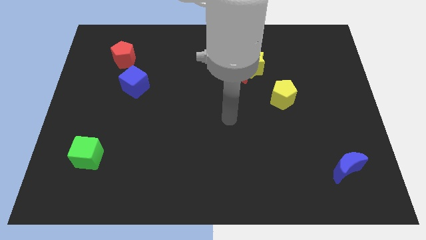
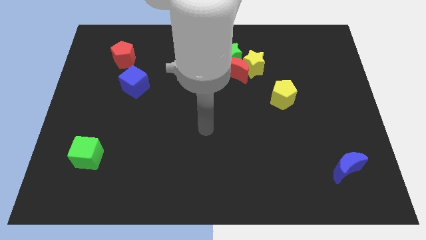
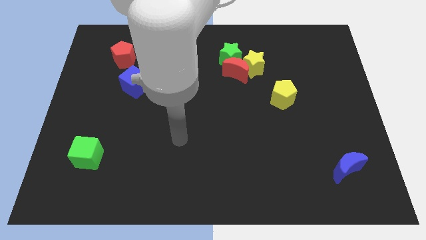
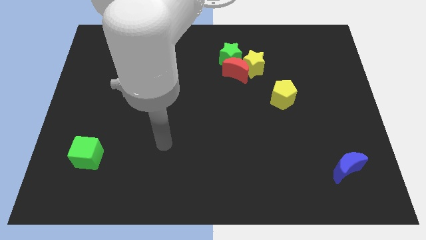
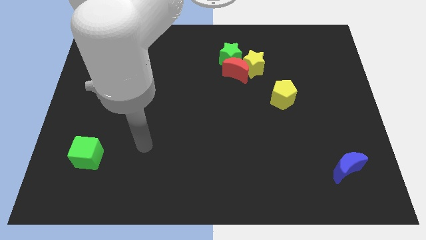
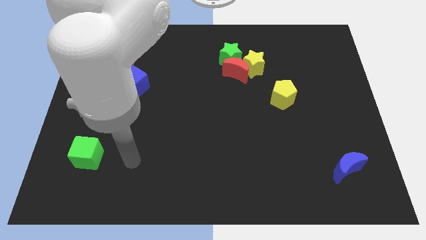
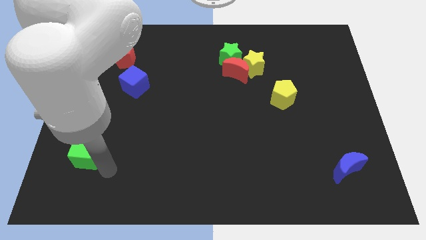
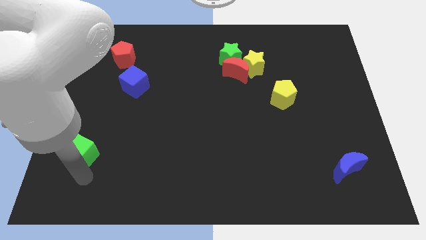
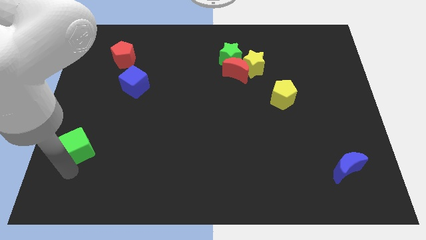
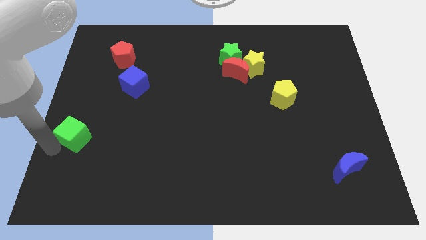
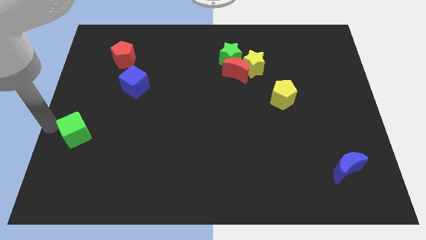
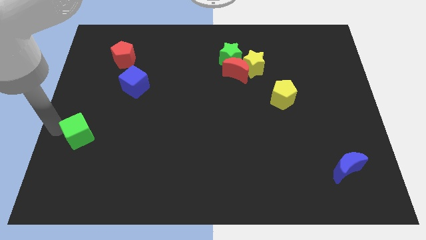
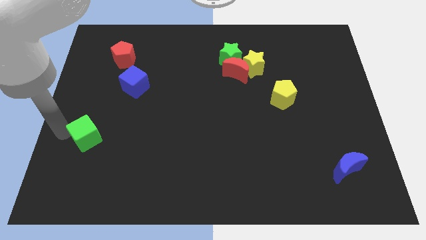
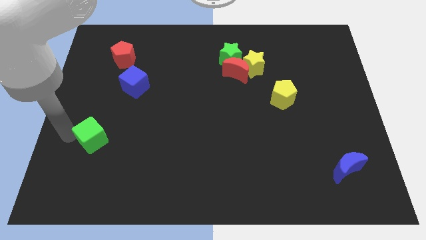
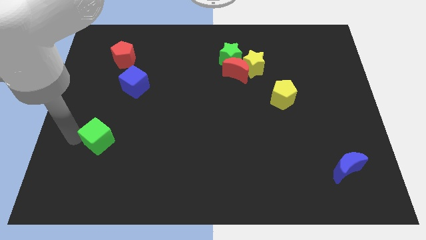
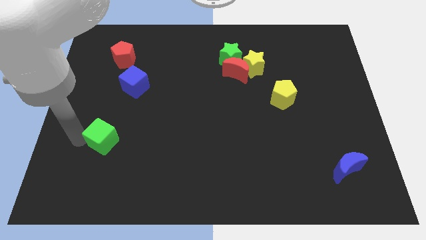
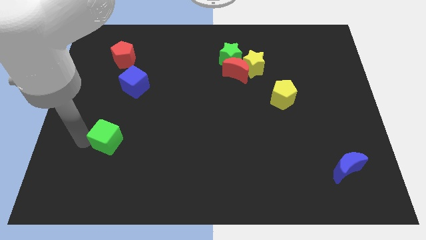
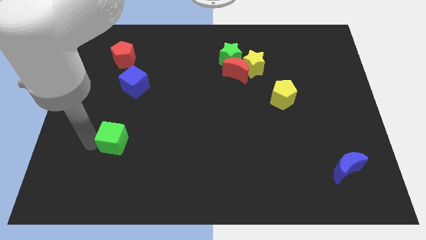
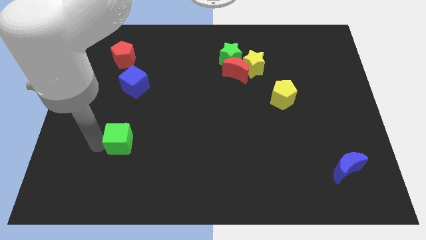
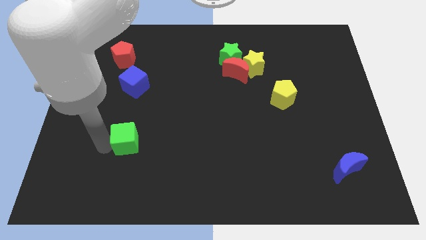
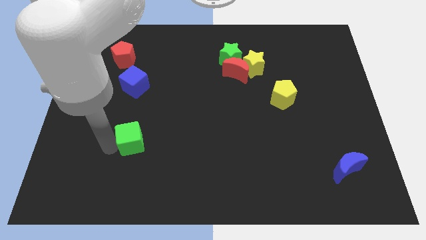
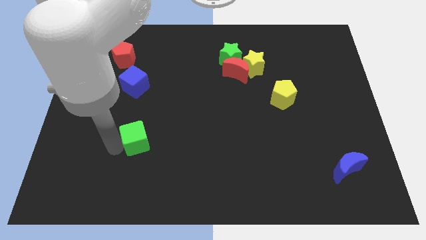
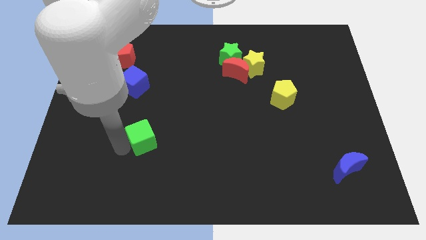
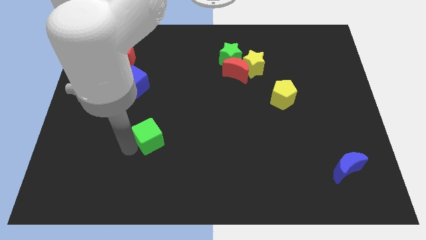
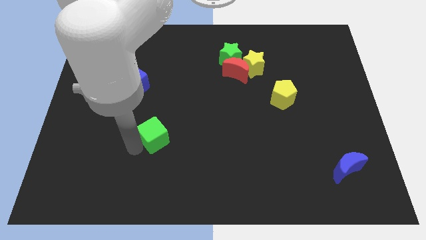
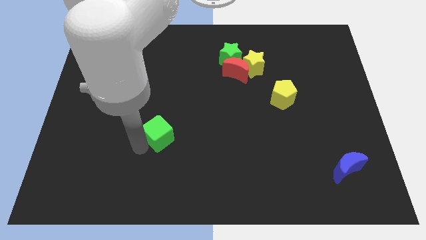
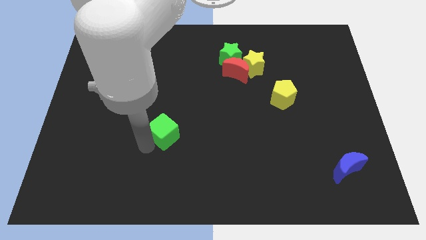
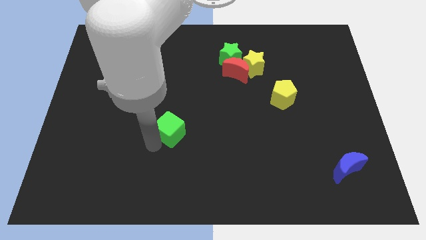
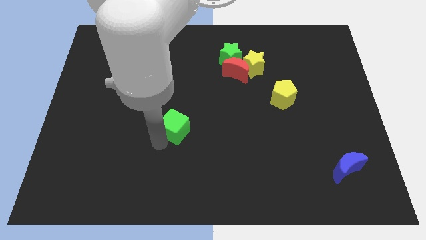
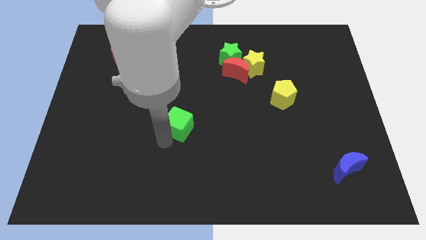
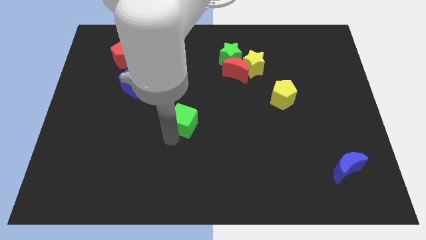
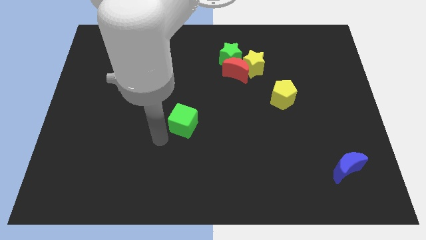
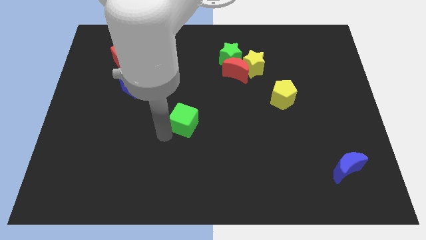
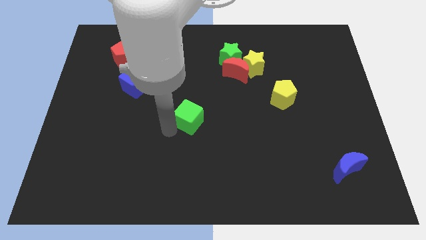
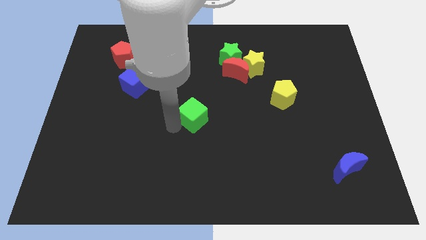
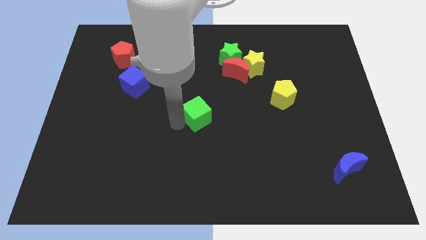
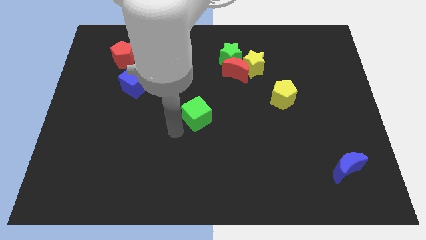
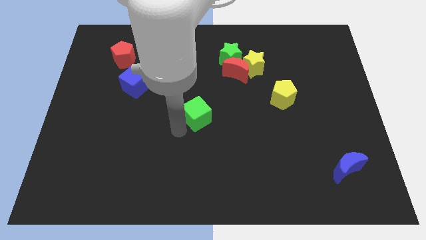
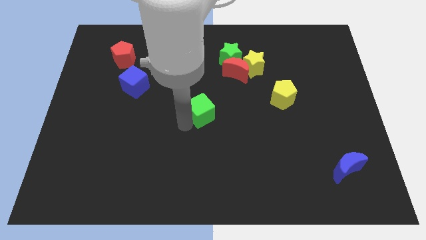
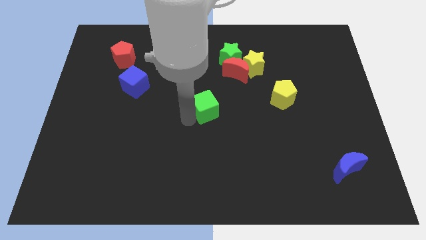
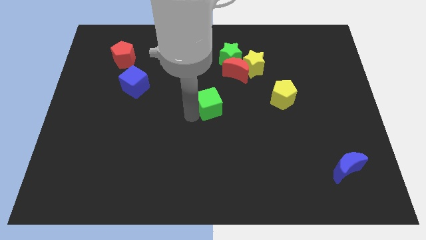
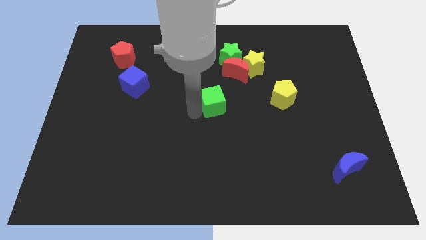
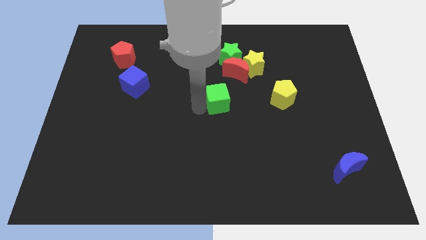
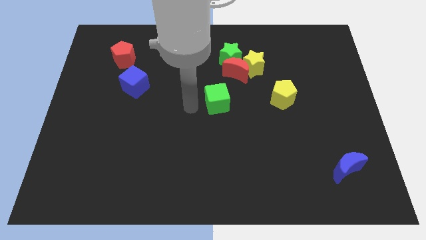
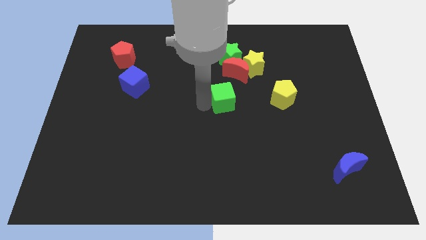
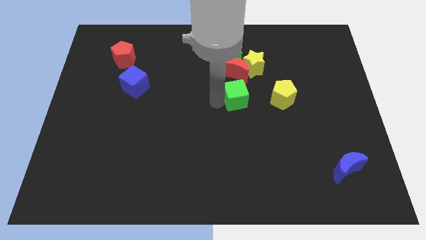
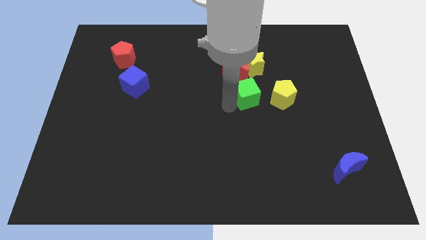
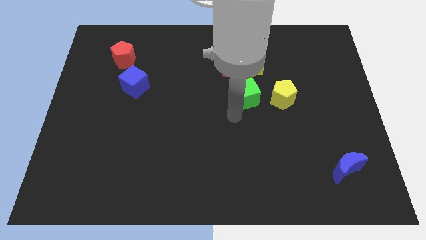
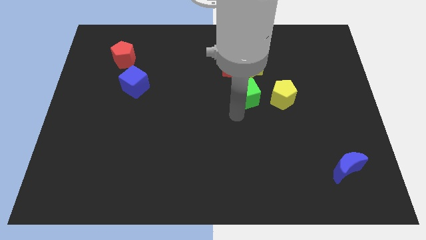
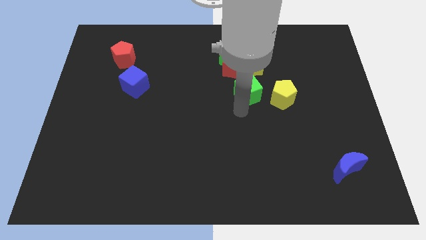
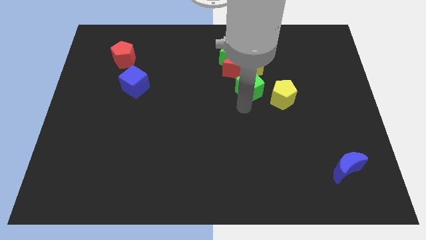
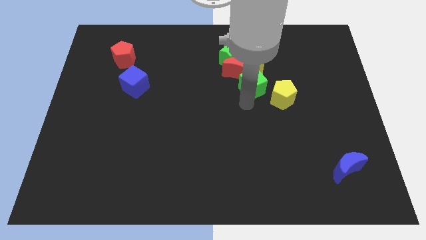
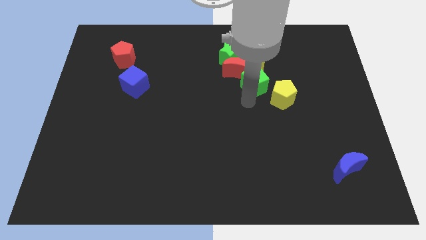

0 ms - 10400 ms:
move the green cube close to the yellow star

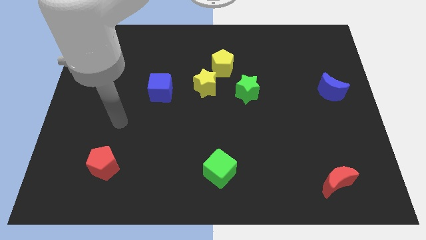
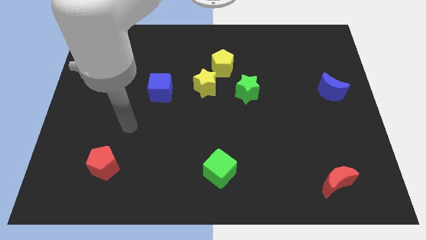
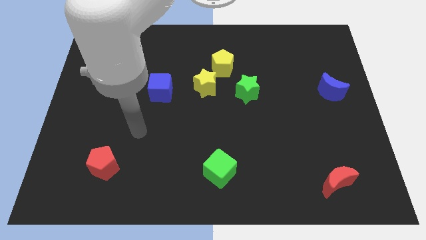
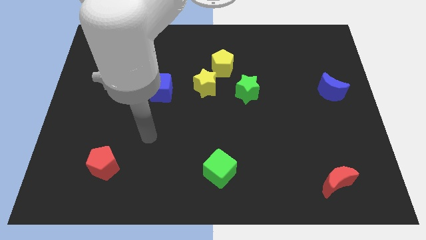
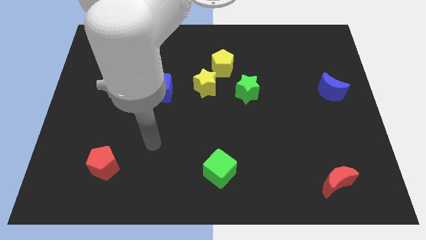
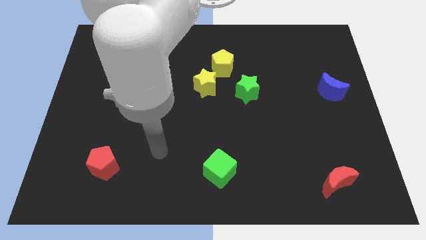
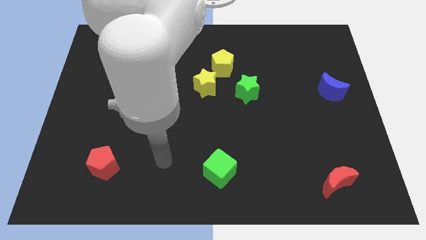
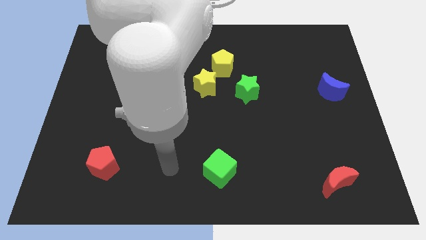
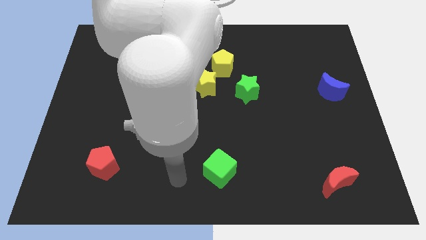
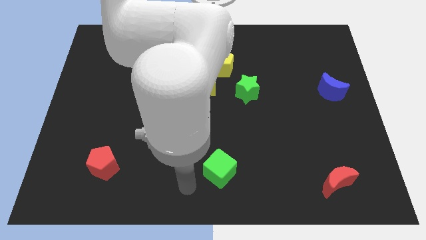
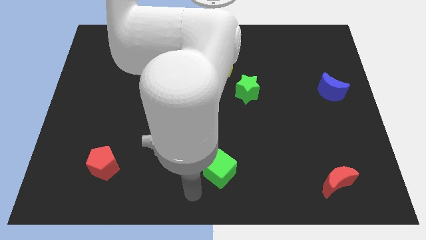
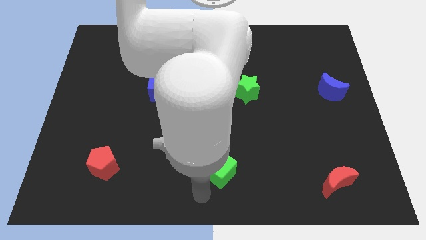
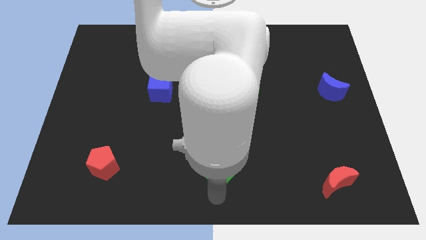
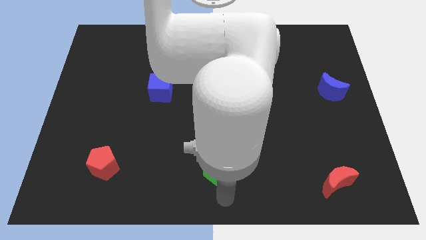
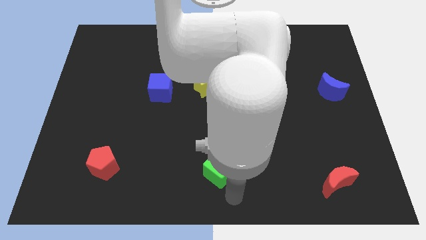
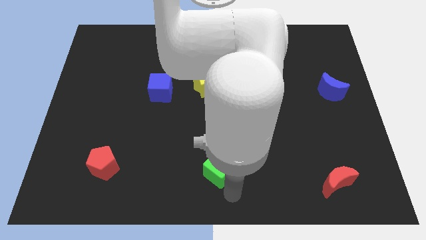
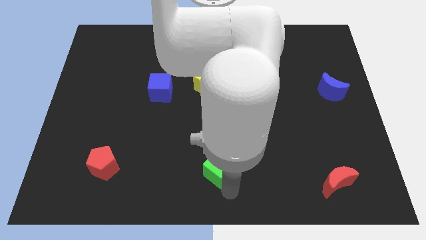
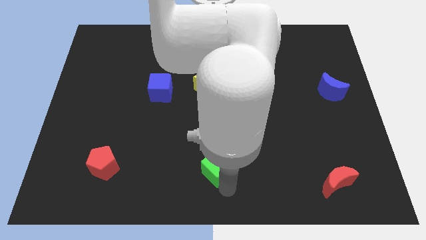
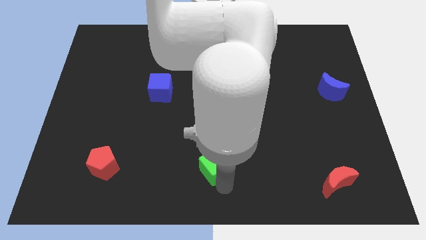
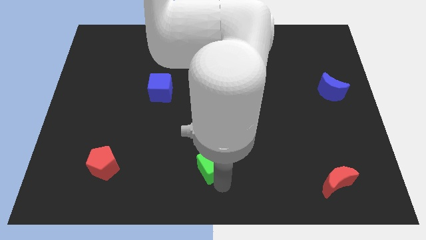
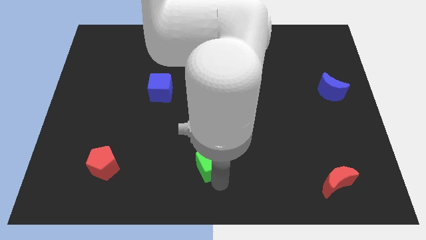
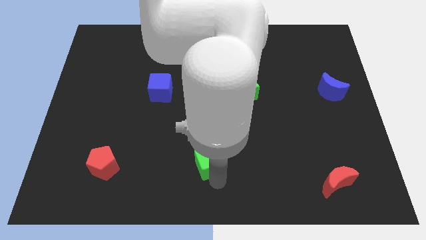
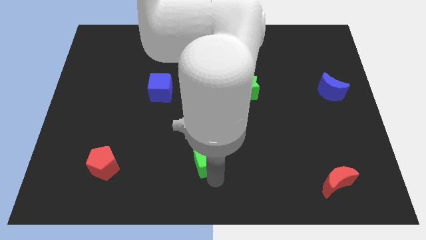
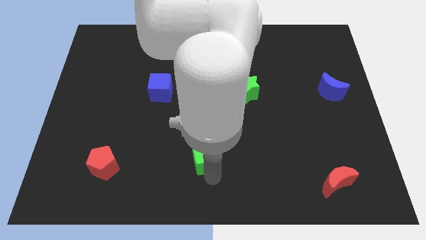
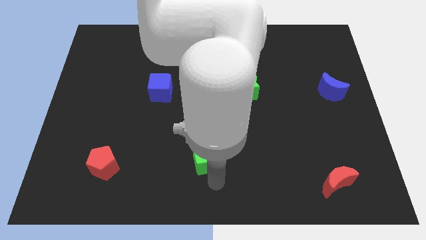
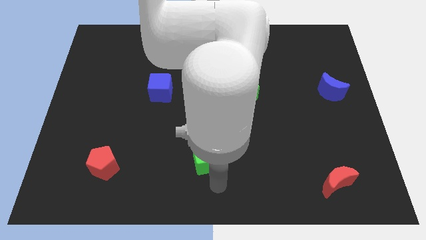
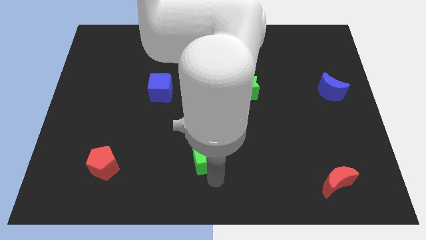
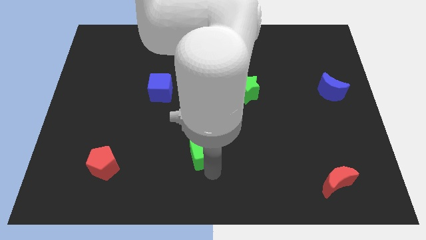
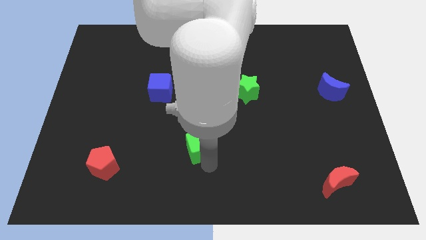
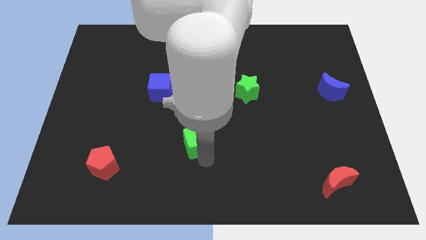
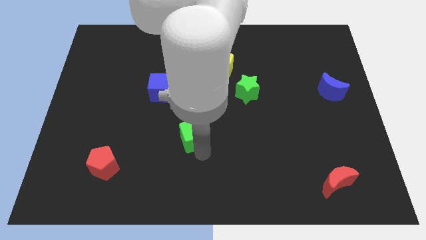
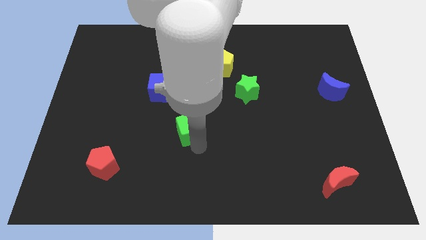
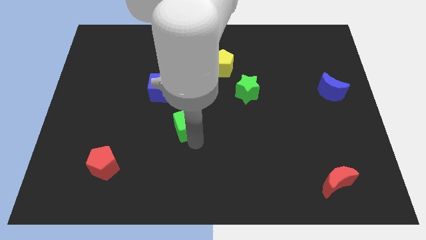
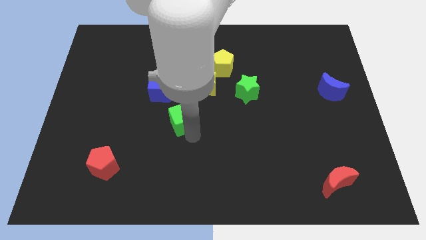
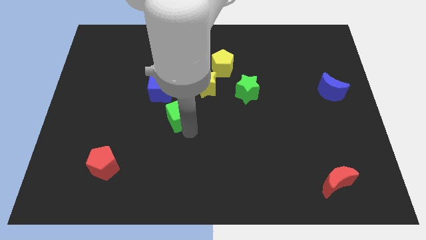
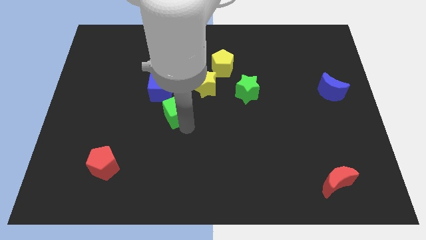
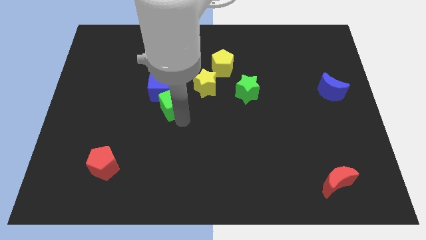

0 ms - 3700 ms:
put the green cube towards the blue cube
